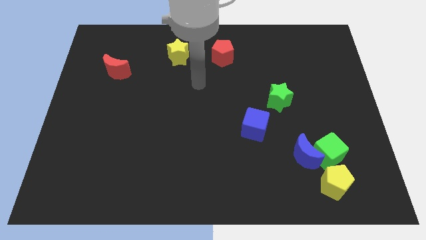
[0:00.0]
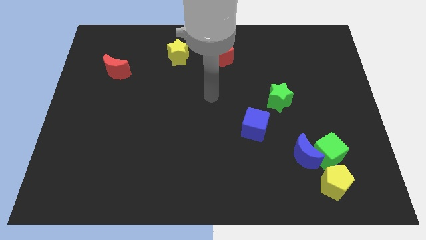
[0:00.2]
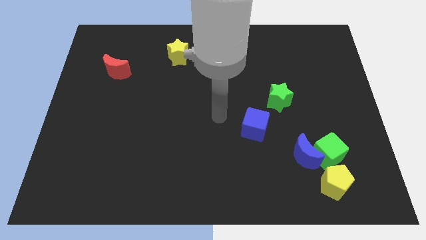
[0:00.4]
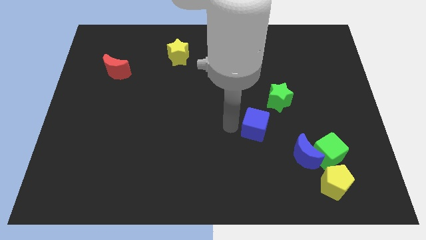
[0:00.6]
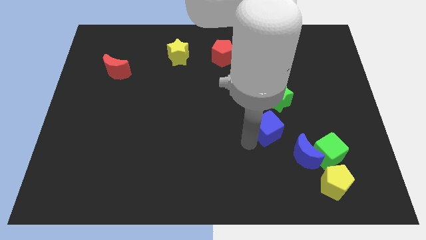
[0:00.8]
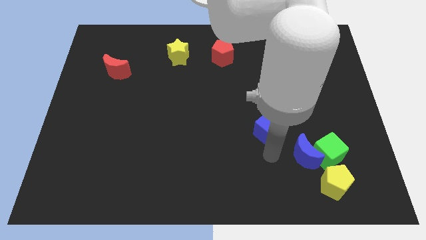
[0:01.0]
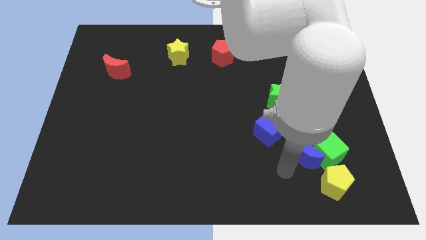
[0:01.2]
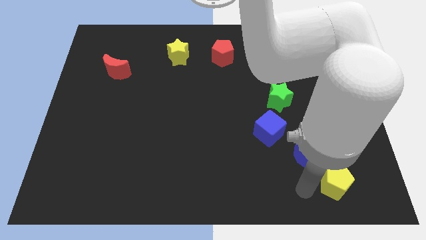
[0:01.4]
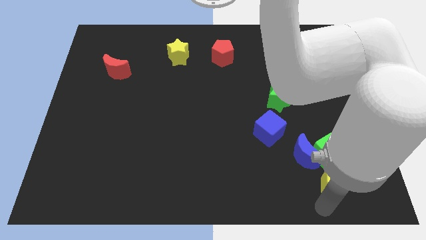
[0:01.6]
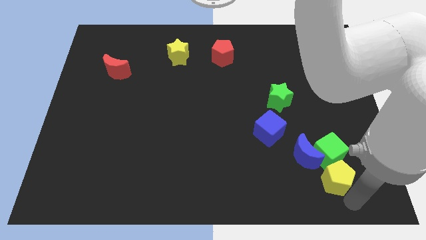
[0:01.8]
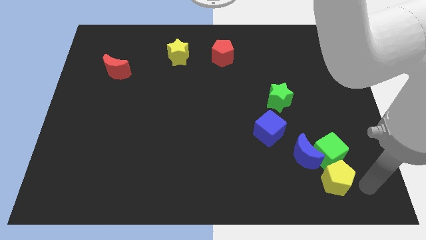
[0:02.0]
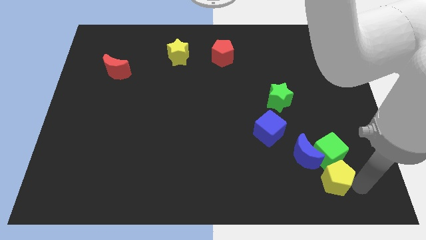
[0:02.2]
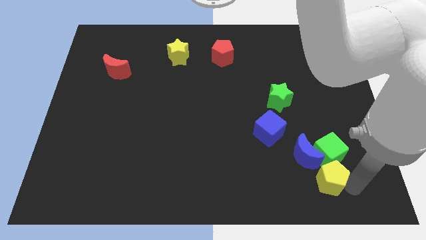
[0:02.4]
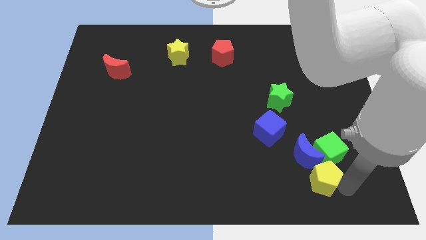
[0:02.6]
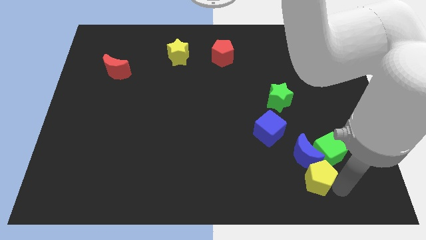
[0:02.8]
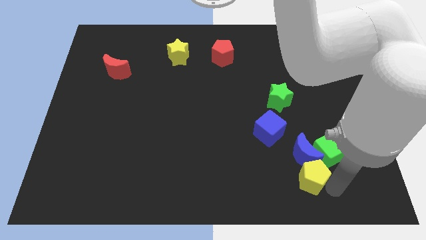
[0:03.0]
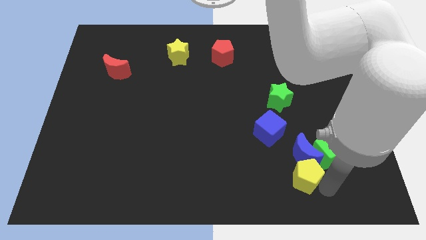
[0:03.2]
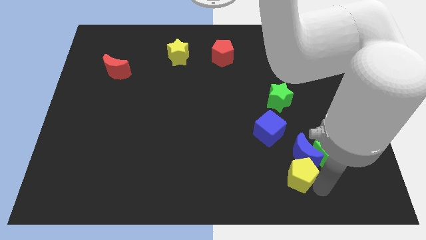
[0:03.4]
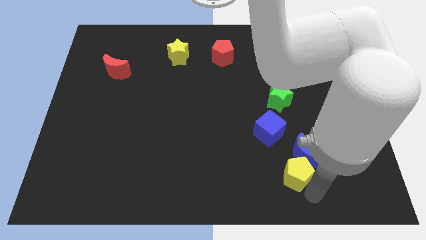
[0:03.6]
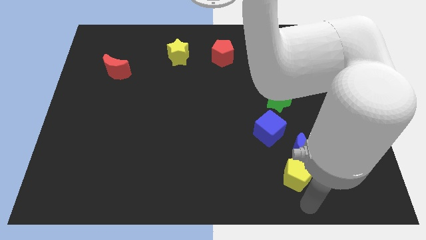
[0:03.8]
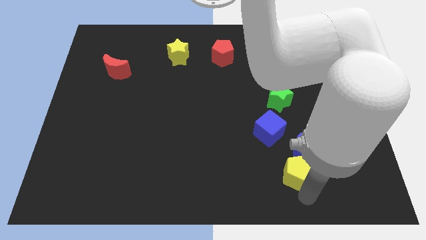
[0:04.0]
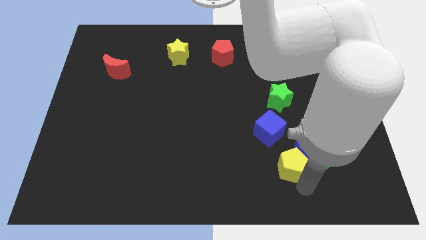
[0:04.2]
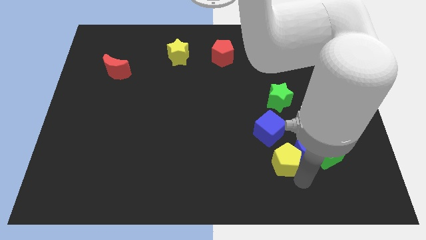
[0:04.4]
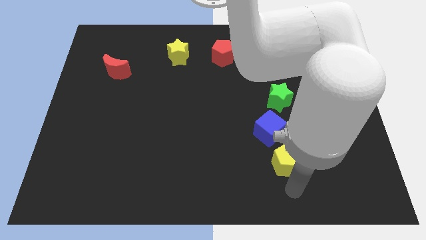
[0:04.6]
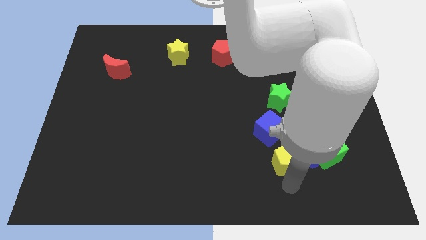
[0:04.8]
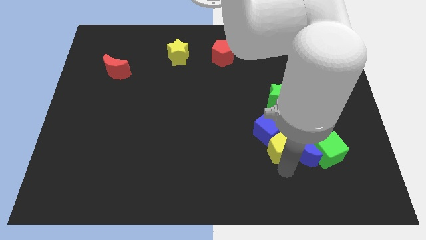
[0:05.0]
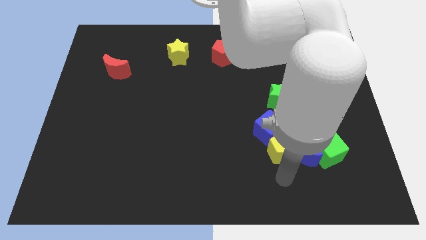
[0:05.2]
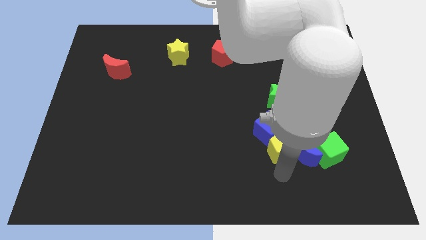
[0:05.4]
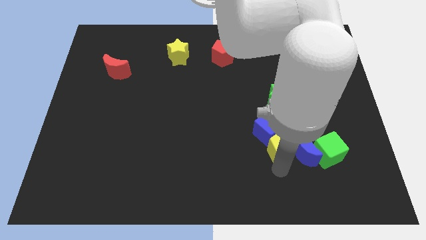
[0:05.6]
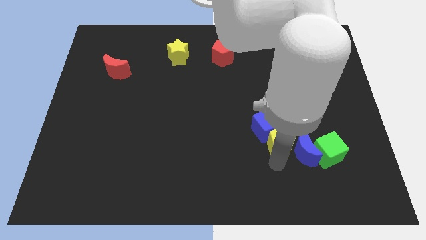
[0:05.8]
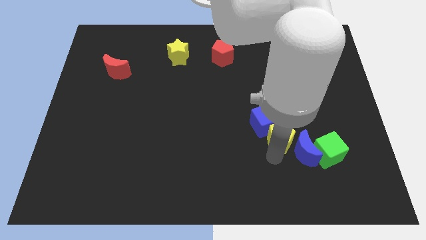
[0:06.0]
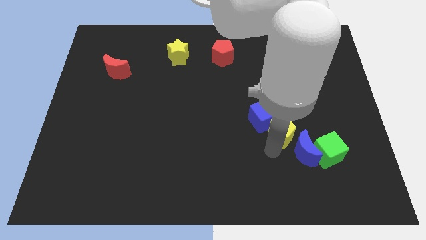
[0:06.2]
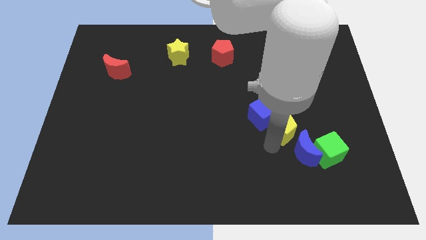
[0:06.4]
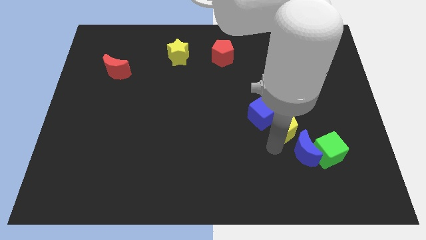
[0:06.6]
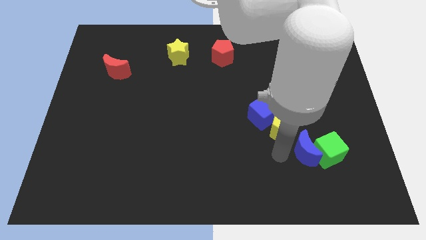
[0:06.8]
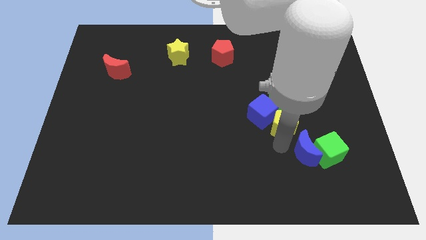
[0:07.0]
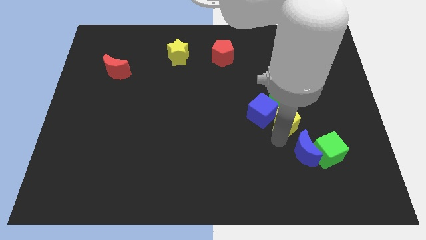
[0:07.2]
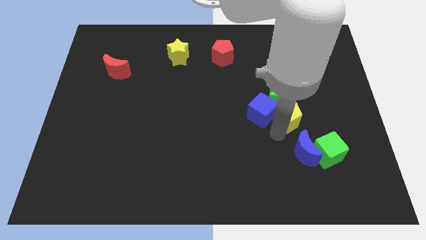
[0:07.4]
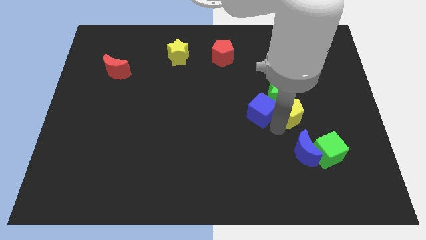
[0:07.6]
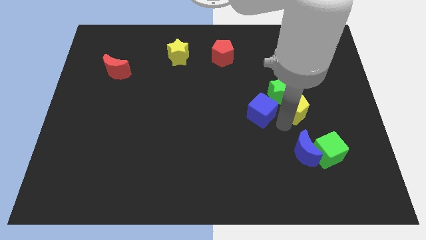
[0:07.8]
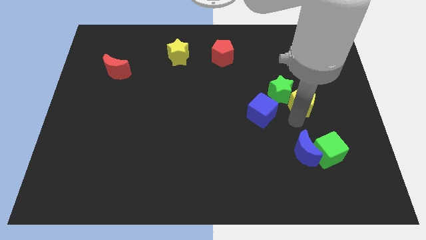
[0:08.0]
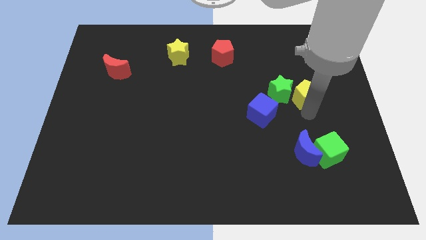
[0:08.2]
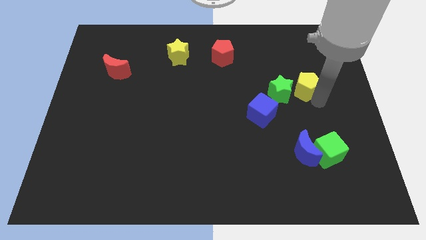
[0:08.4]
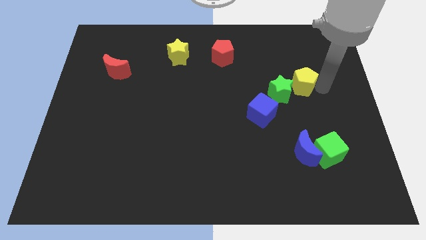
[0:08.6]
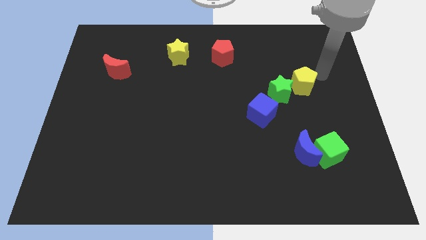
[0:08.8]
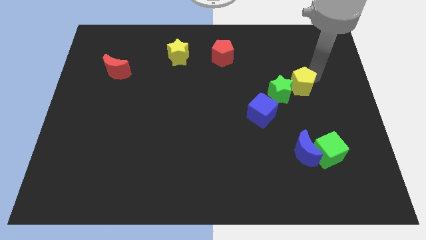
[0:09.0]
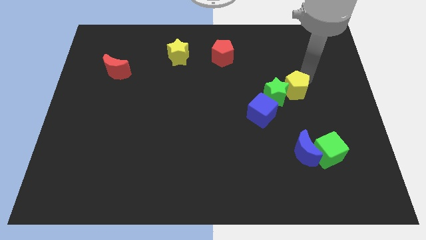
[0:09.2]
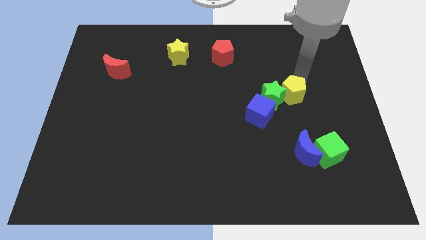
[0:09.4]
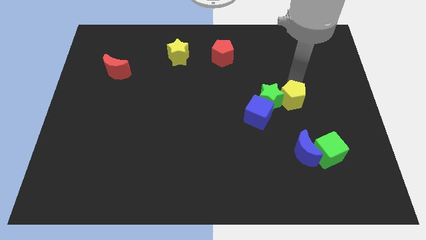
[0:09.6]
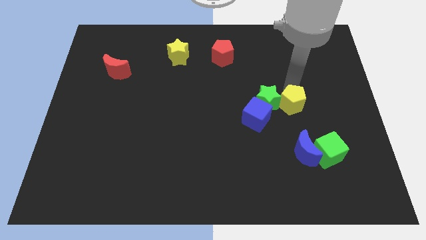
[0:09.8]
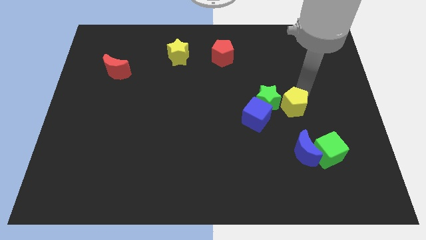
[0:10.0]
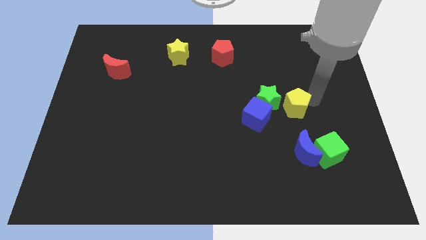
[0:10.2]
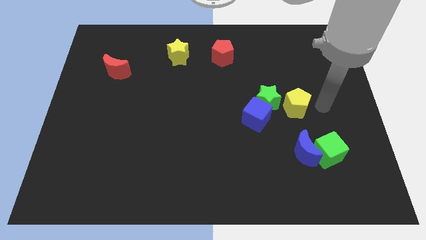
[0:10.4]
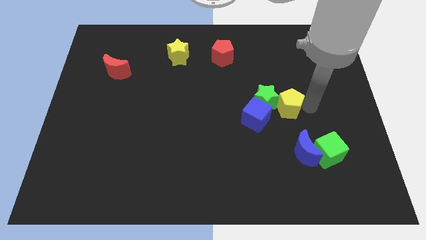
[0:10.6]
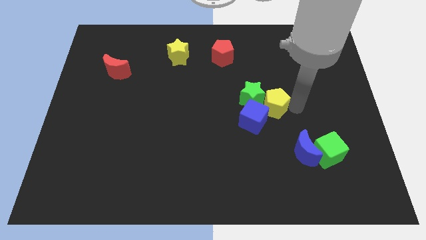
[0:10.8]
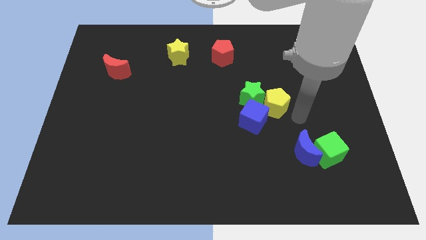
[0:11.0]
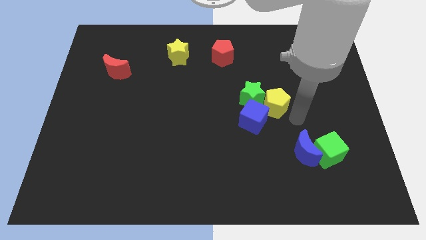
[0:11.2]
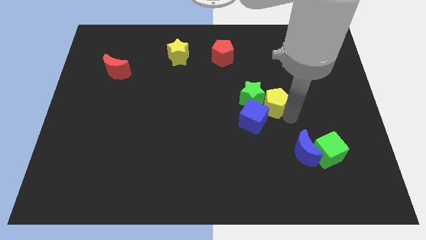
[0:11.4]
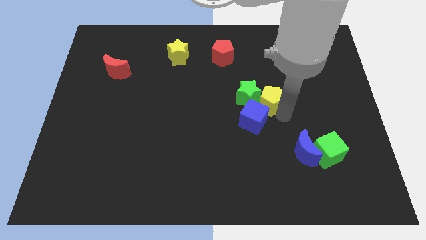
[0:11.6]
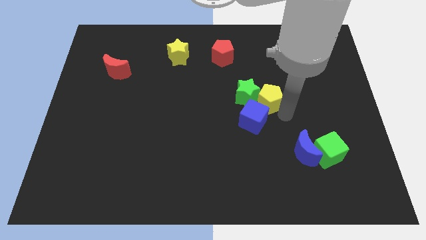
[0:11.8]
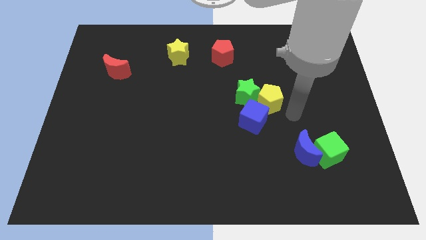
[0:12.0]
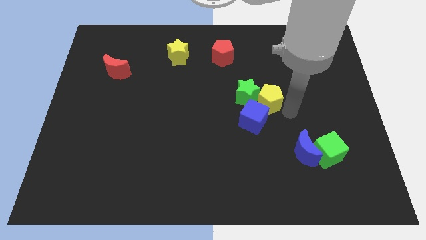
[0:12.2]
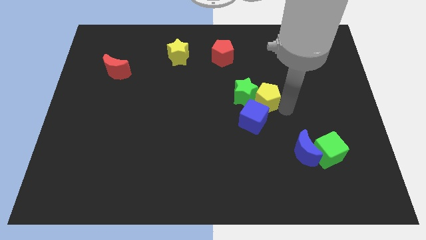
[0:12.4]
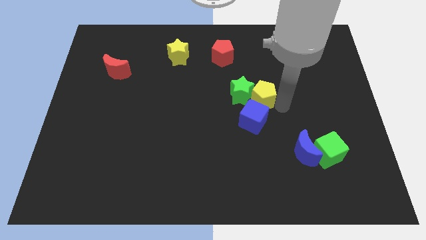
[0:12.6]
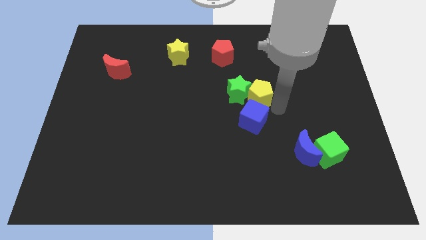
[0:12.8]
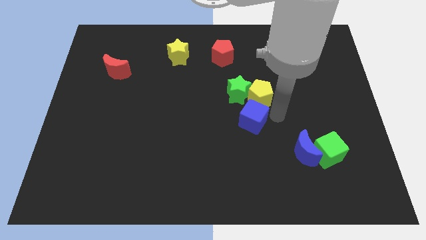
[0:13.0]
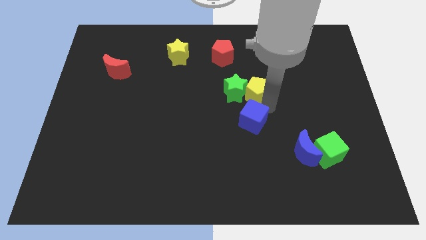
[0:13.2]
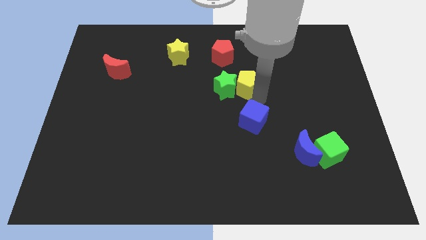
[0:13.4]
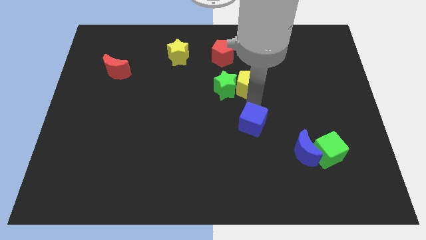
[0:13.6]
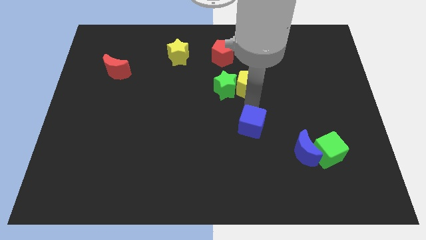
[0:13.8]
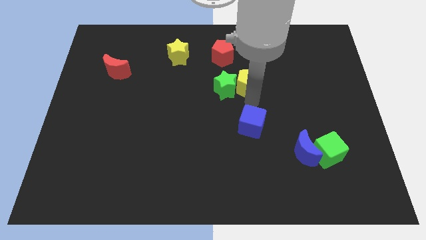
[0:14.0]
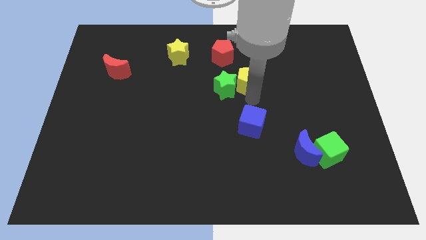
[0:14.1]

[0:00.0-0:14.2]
push the yellow pentagon to the bottom right of the red pentagon
